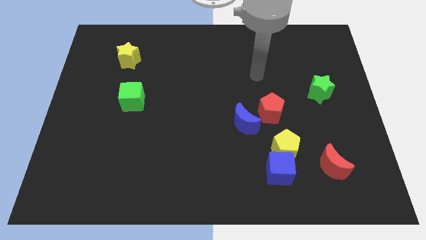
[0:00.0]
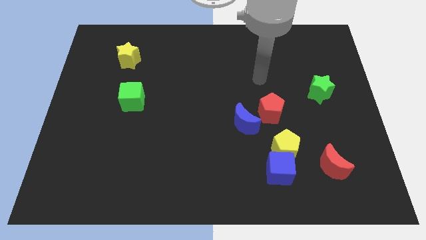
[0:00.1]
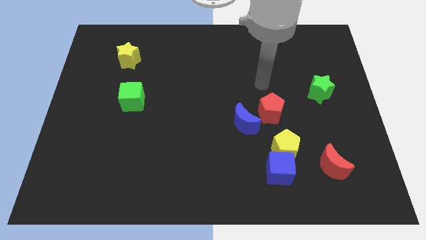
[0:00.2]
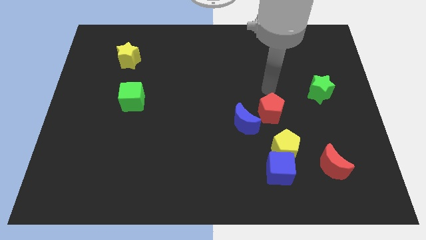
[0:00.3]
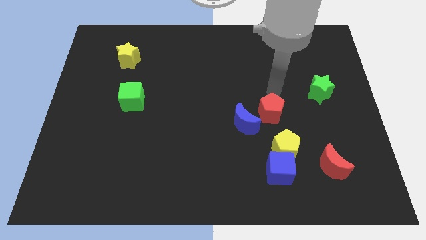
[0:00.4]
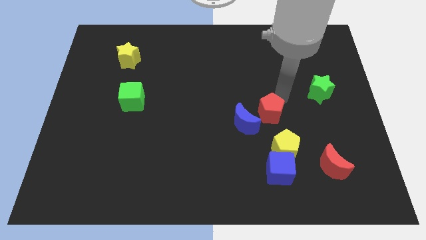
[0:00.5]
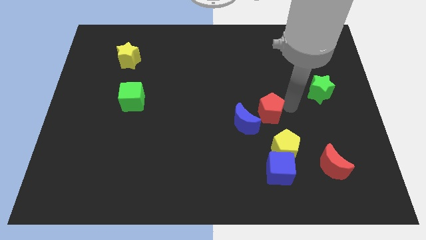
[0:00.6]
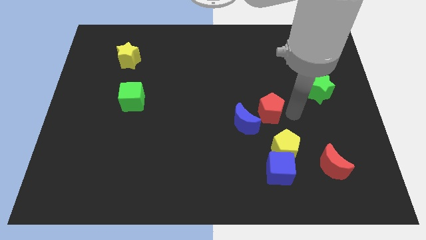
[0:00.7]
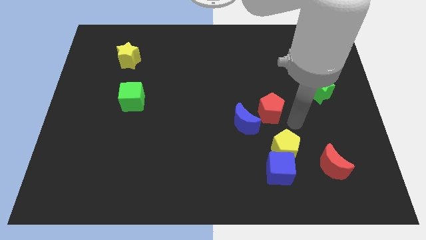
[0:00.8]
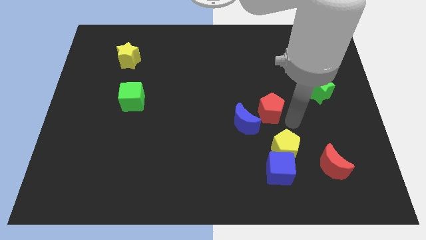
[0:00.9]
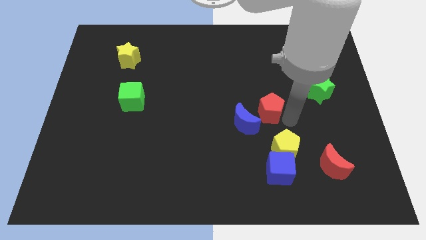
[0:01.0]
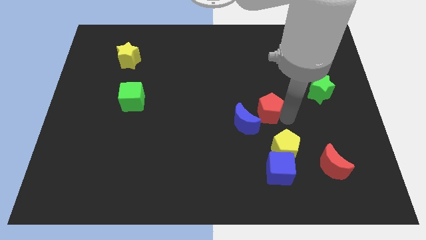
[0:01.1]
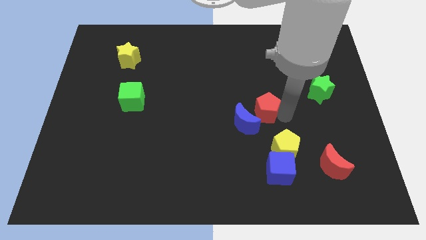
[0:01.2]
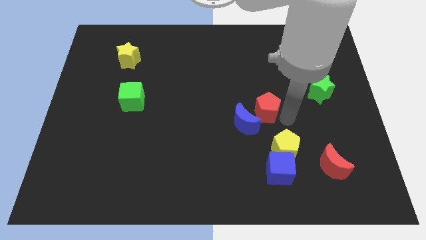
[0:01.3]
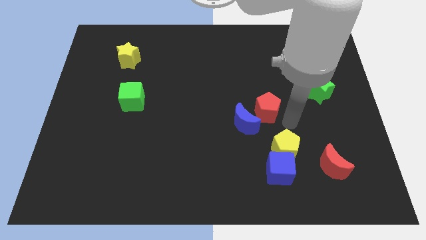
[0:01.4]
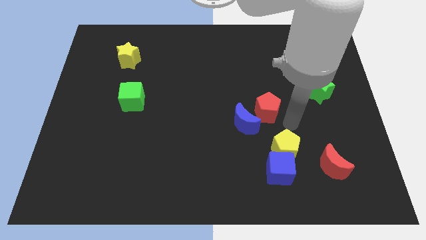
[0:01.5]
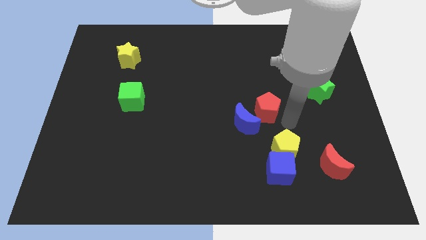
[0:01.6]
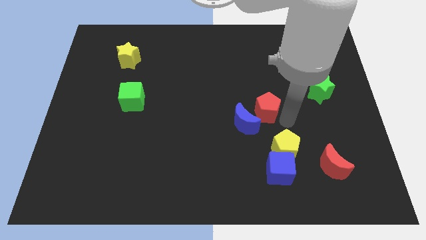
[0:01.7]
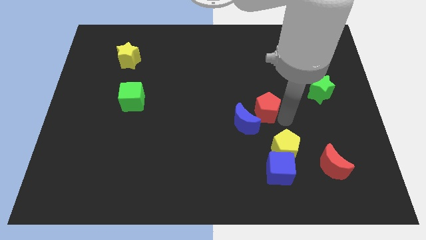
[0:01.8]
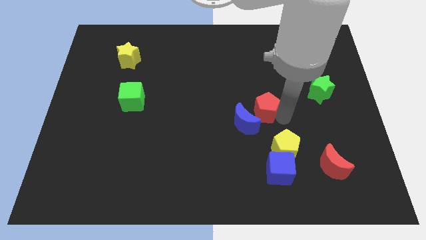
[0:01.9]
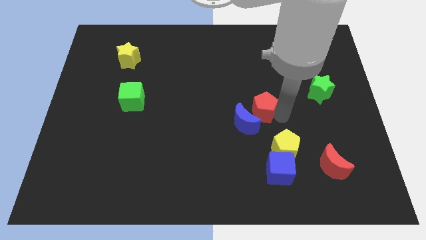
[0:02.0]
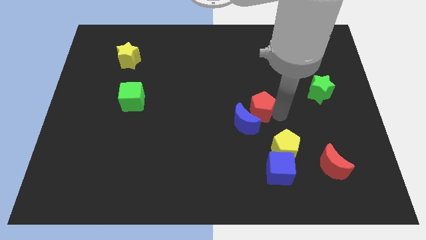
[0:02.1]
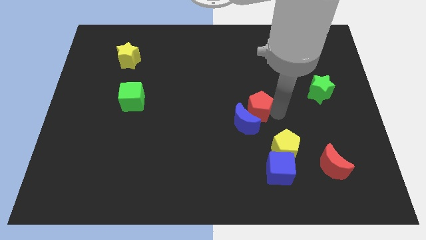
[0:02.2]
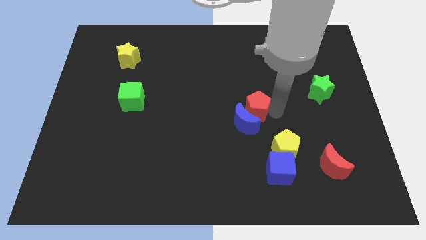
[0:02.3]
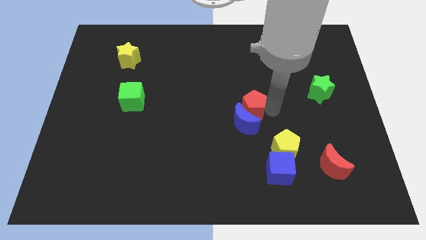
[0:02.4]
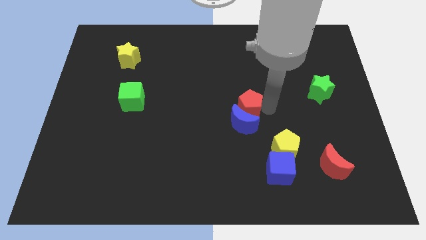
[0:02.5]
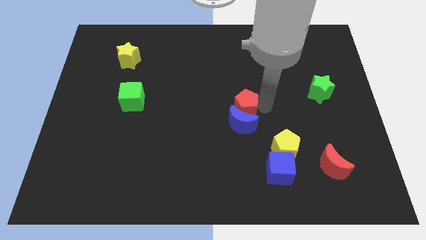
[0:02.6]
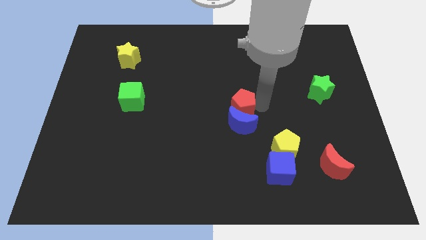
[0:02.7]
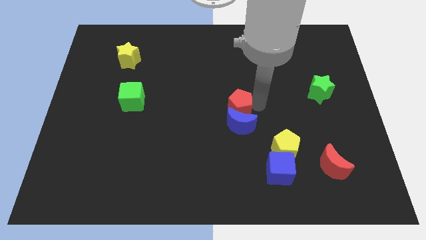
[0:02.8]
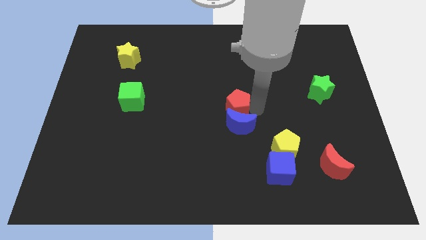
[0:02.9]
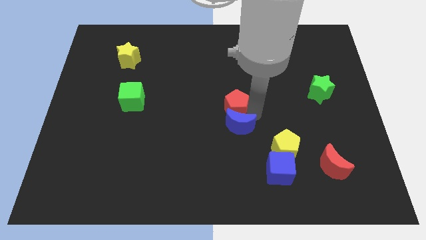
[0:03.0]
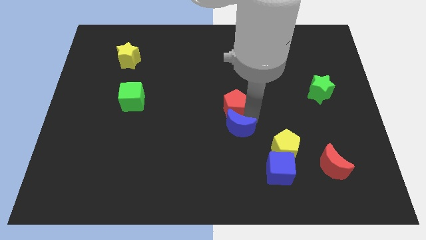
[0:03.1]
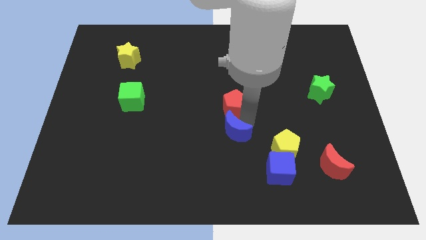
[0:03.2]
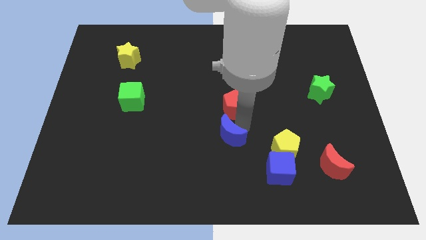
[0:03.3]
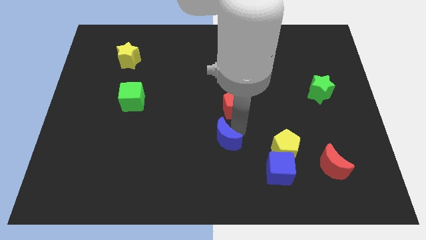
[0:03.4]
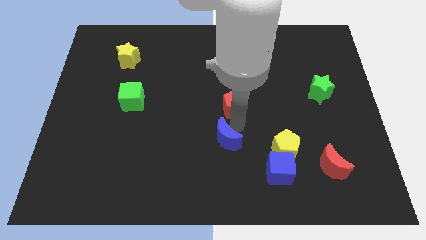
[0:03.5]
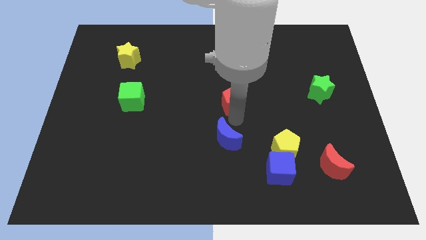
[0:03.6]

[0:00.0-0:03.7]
push the red pentagon a little up and then left

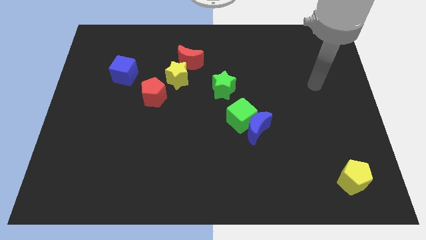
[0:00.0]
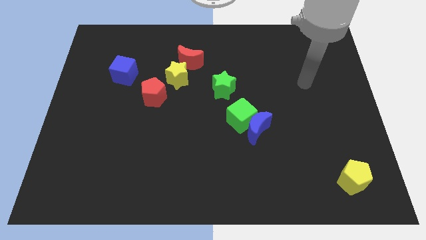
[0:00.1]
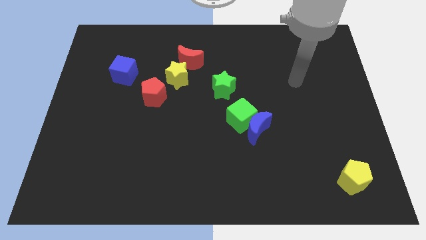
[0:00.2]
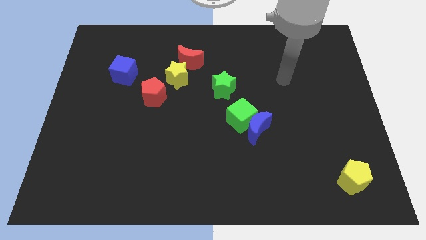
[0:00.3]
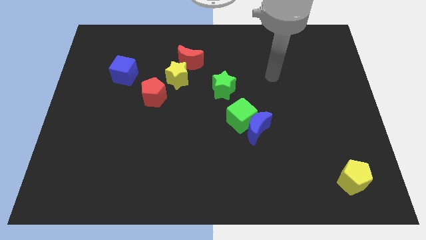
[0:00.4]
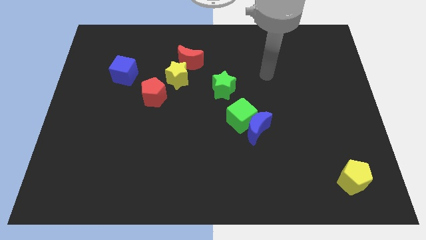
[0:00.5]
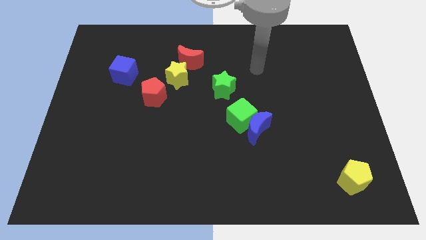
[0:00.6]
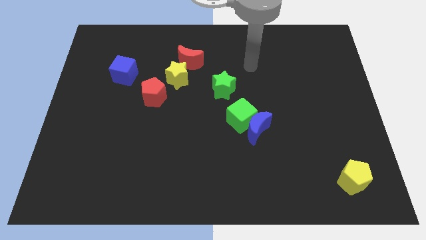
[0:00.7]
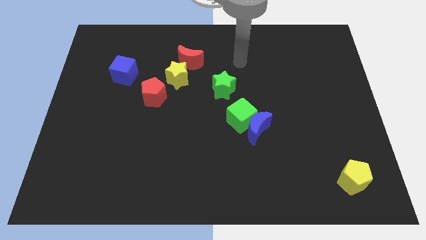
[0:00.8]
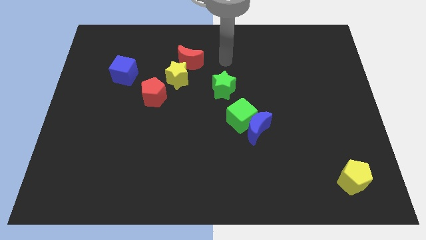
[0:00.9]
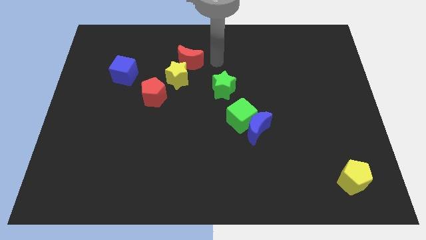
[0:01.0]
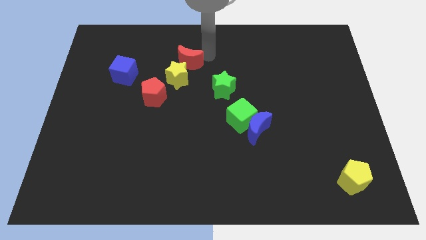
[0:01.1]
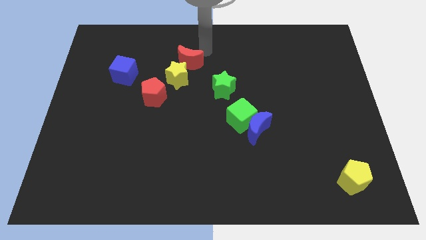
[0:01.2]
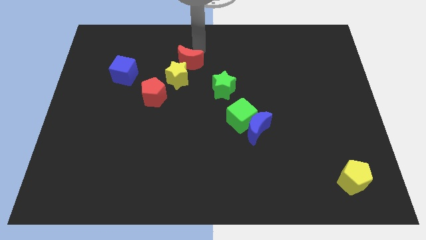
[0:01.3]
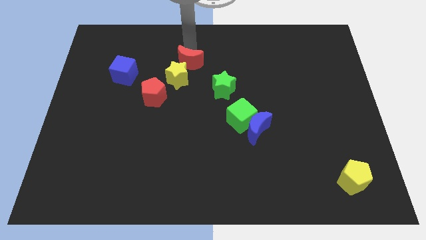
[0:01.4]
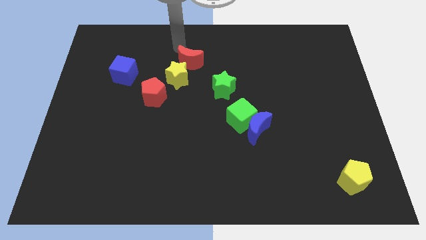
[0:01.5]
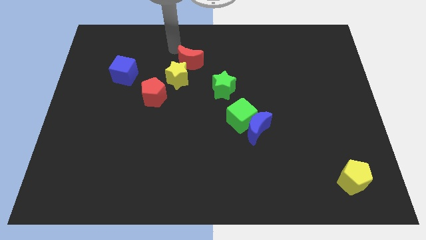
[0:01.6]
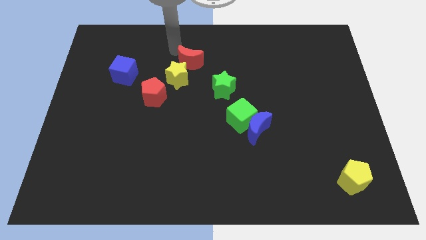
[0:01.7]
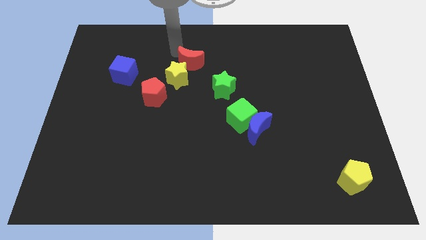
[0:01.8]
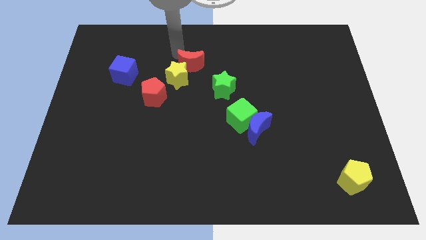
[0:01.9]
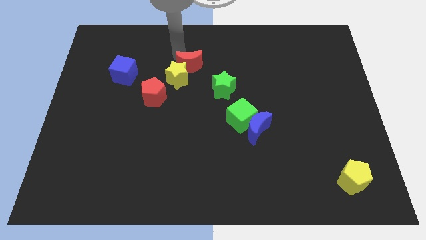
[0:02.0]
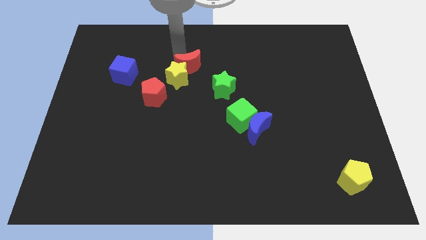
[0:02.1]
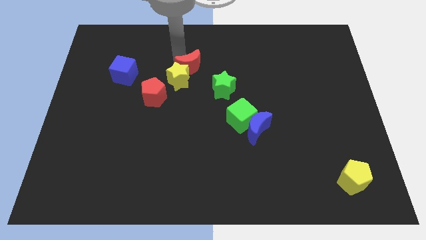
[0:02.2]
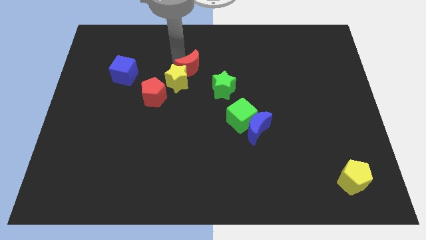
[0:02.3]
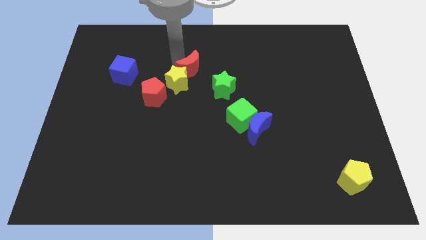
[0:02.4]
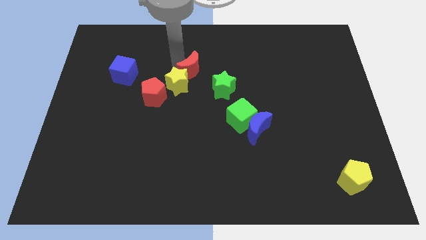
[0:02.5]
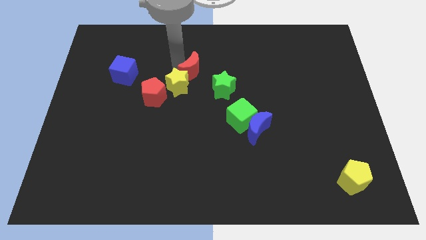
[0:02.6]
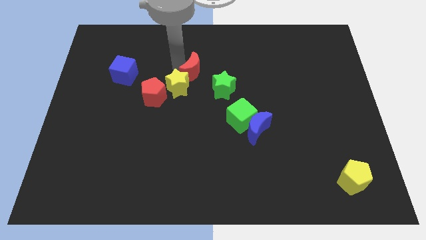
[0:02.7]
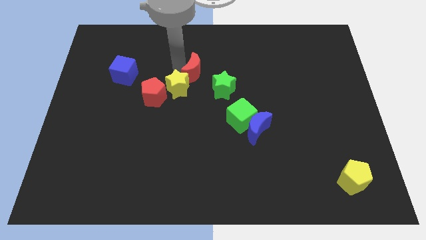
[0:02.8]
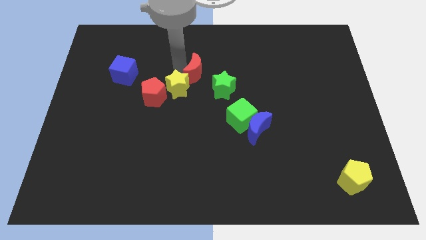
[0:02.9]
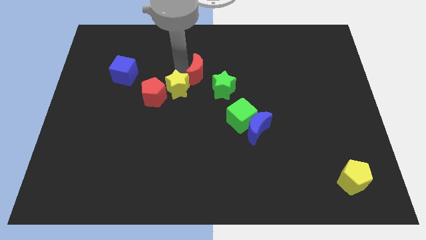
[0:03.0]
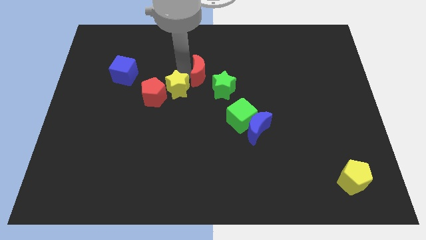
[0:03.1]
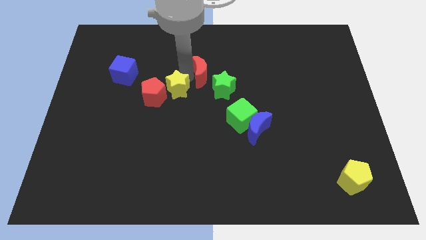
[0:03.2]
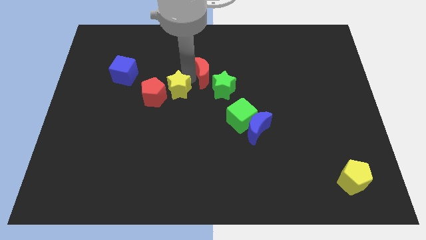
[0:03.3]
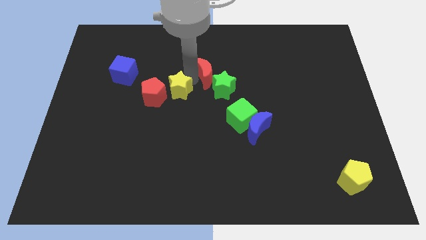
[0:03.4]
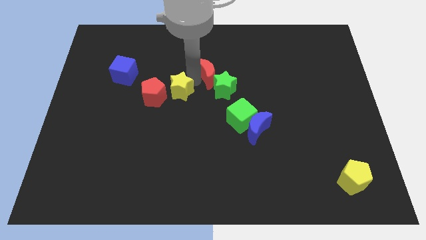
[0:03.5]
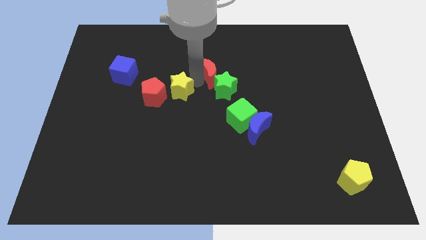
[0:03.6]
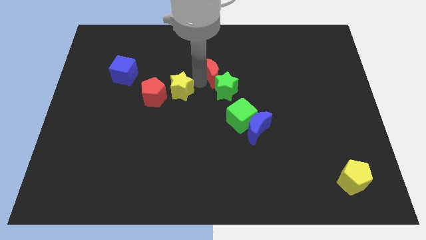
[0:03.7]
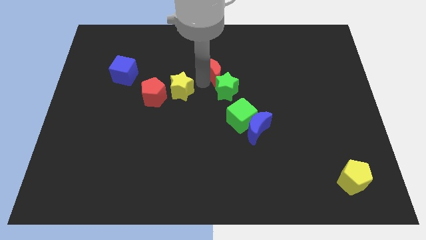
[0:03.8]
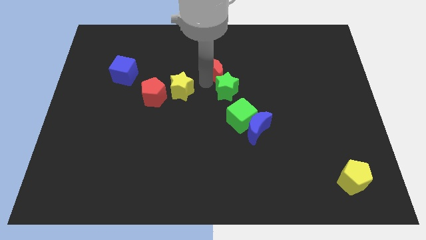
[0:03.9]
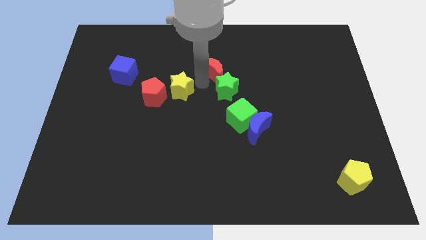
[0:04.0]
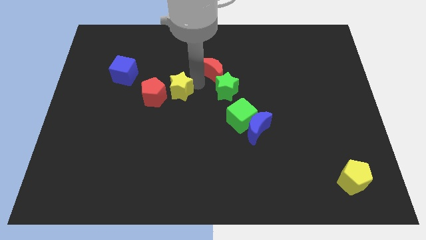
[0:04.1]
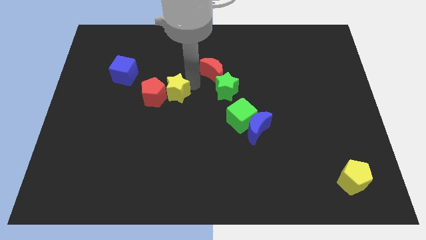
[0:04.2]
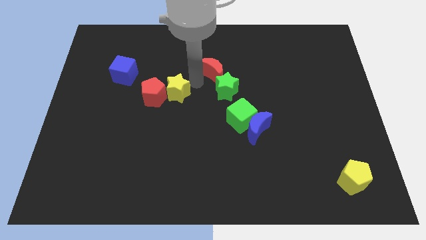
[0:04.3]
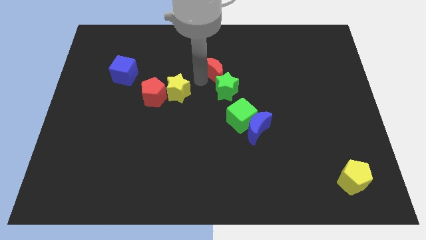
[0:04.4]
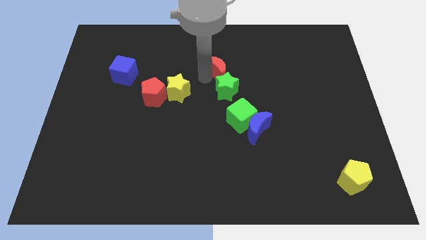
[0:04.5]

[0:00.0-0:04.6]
slightly push the red moon to the right
